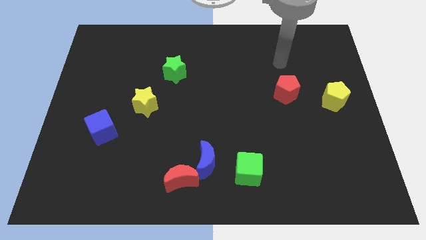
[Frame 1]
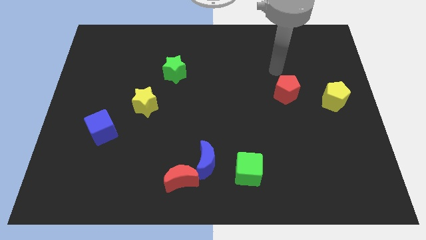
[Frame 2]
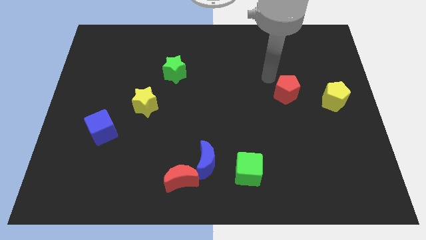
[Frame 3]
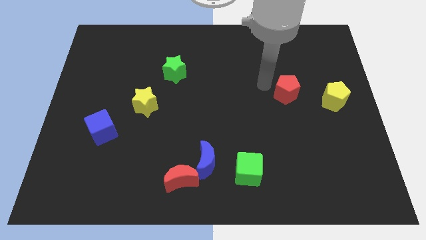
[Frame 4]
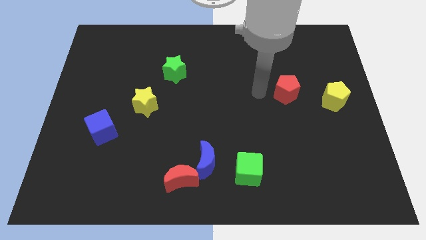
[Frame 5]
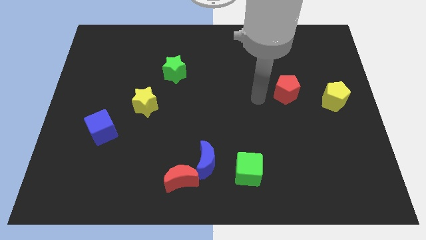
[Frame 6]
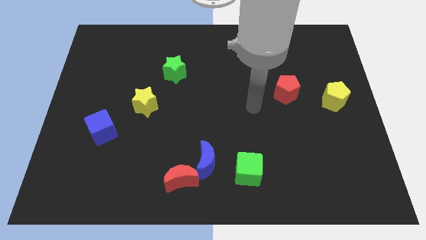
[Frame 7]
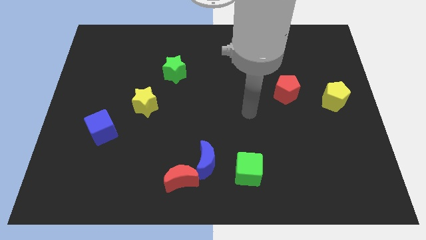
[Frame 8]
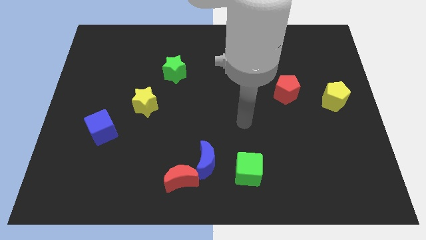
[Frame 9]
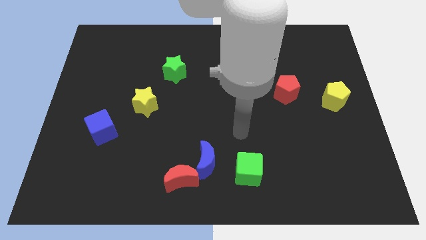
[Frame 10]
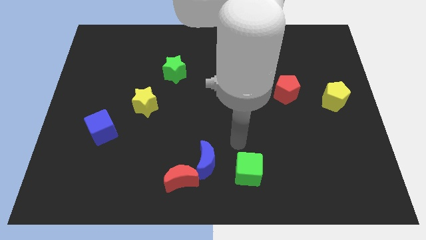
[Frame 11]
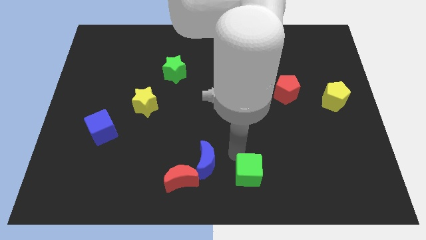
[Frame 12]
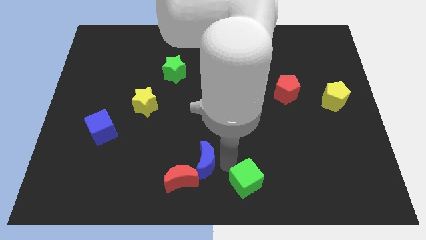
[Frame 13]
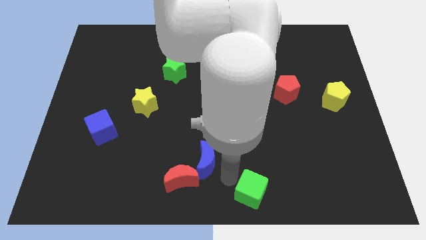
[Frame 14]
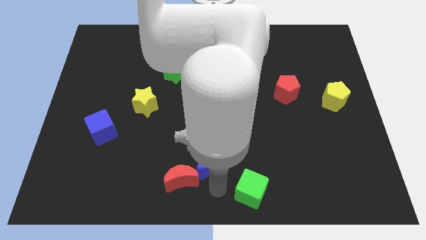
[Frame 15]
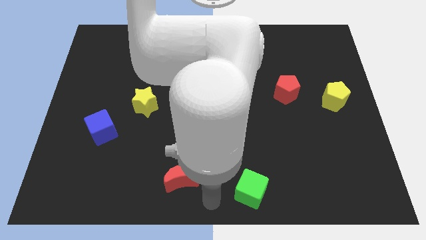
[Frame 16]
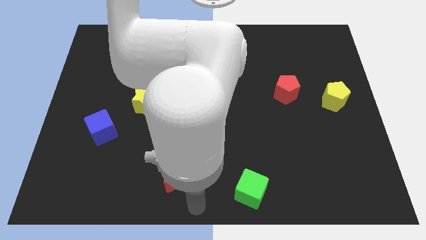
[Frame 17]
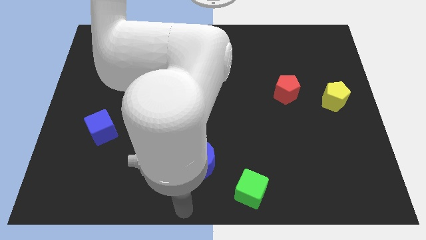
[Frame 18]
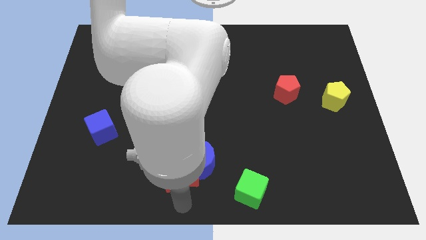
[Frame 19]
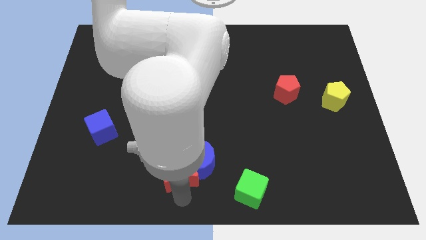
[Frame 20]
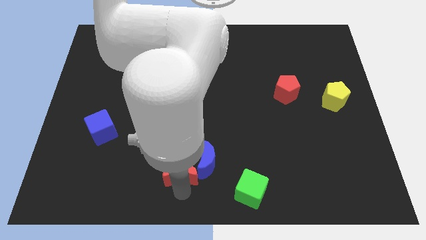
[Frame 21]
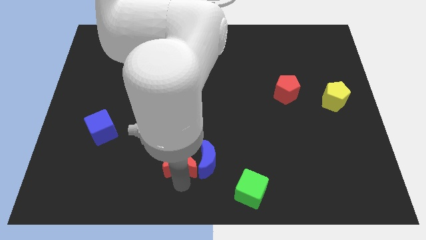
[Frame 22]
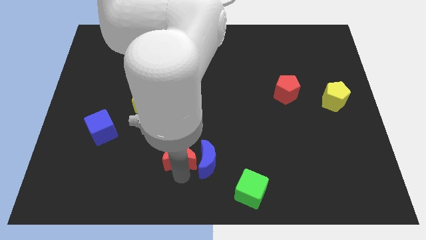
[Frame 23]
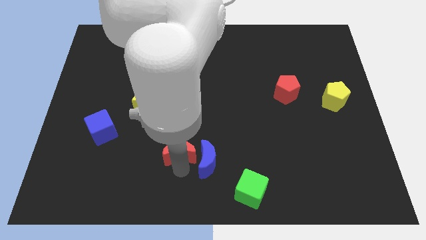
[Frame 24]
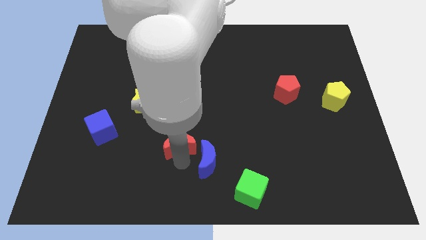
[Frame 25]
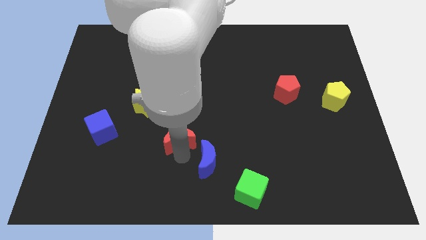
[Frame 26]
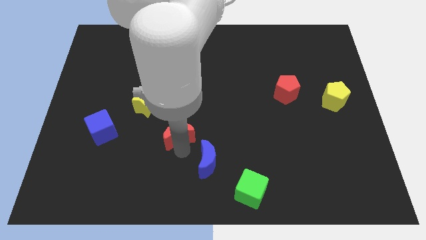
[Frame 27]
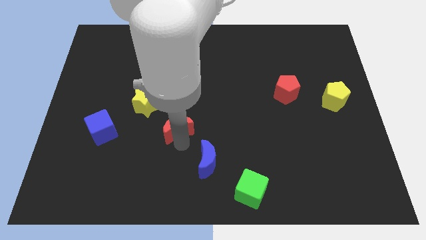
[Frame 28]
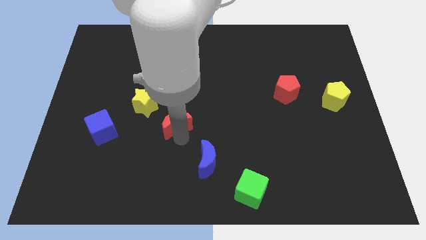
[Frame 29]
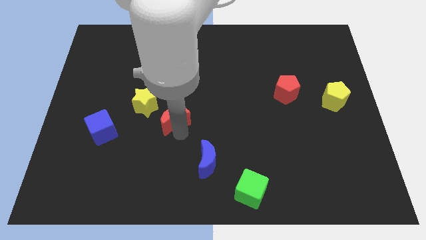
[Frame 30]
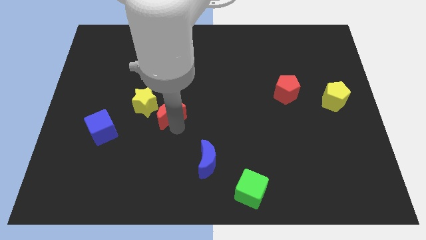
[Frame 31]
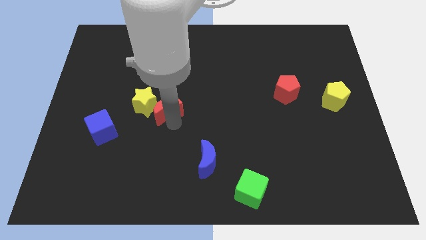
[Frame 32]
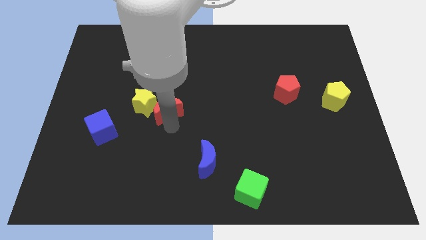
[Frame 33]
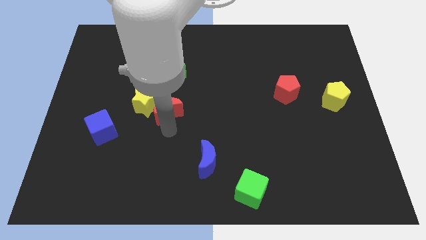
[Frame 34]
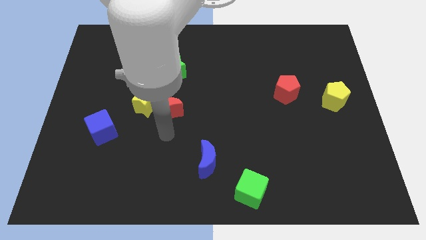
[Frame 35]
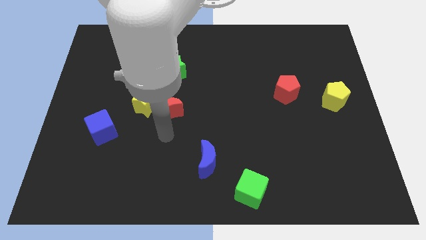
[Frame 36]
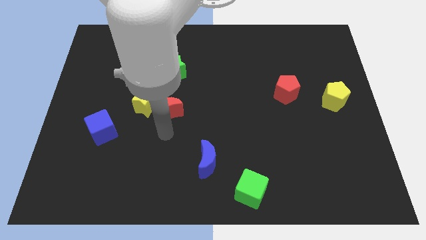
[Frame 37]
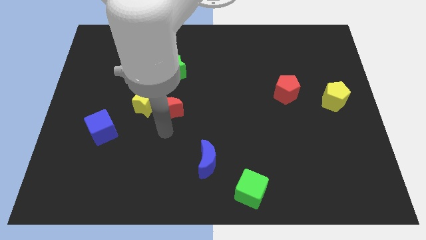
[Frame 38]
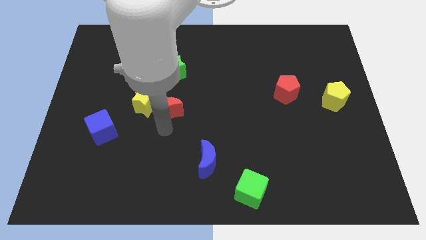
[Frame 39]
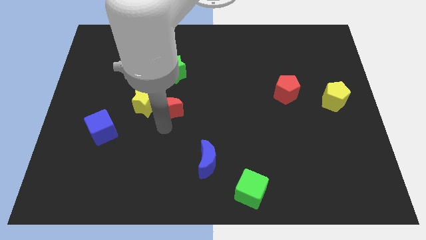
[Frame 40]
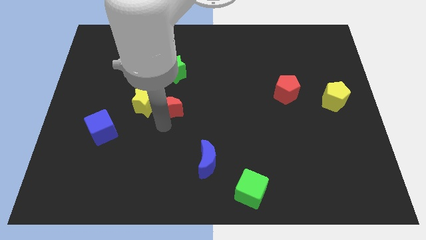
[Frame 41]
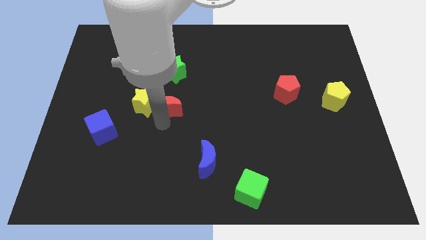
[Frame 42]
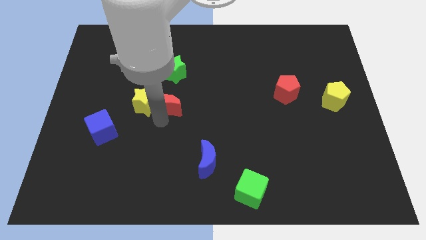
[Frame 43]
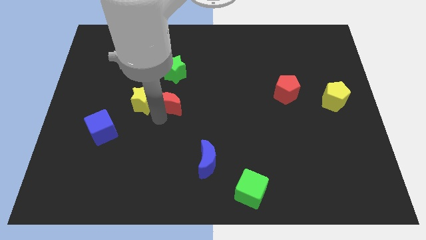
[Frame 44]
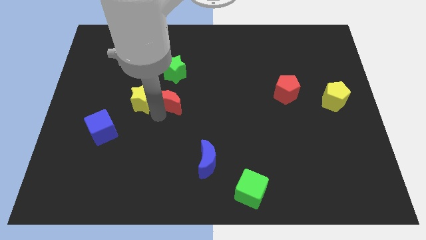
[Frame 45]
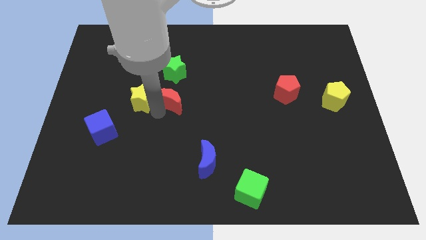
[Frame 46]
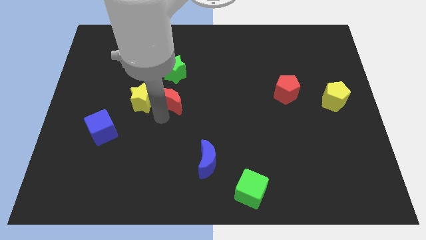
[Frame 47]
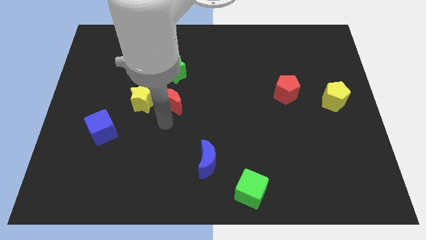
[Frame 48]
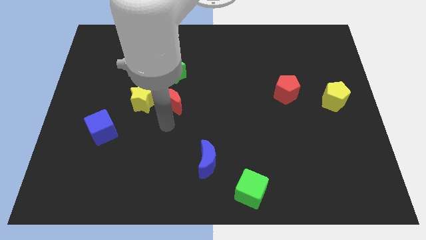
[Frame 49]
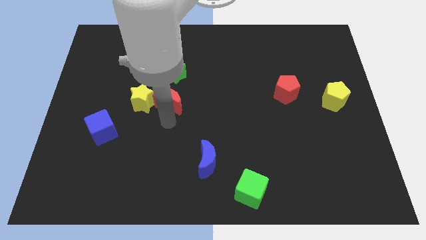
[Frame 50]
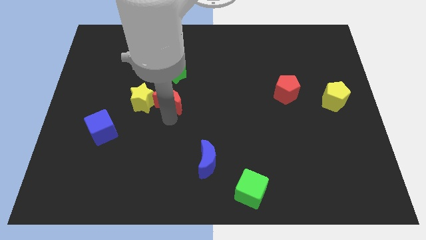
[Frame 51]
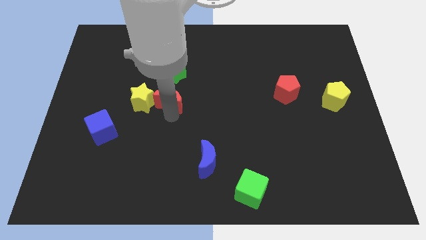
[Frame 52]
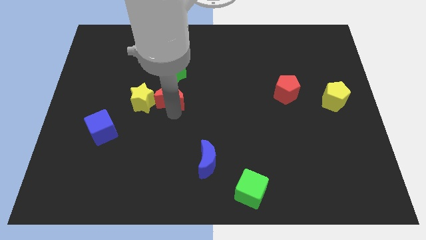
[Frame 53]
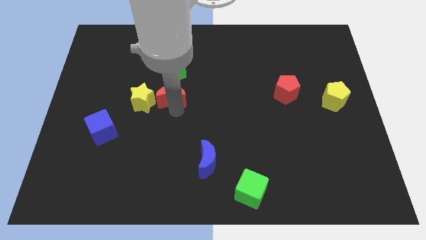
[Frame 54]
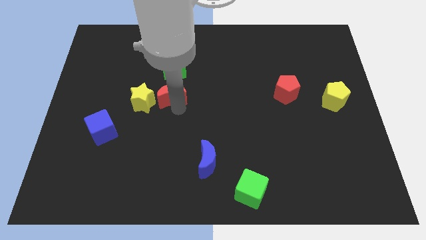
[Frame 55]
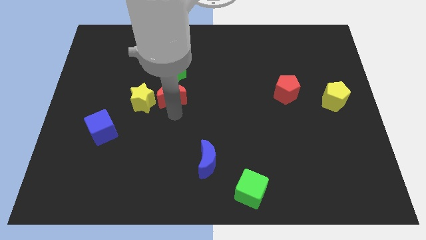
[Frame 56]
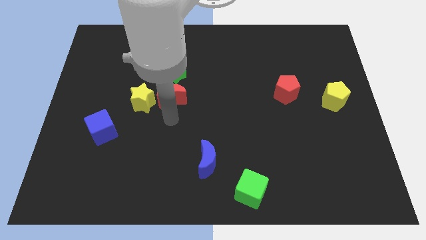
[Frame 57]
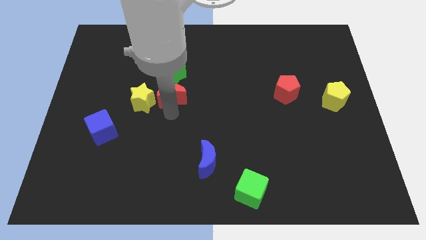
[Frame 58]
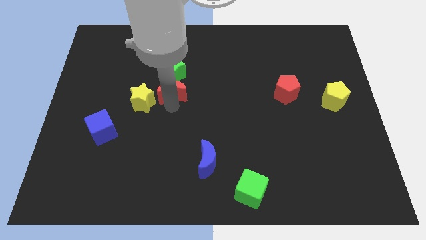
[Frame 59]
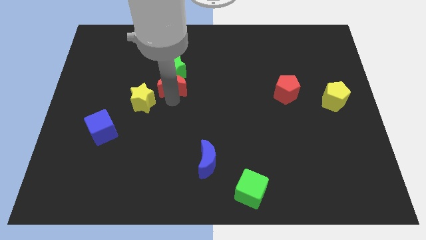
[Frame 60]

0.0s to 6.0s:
put the red moon next to the green star

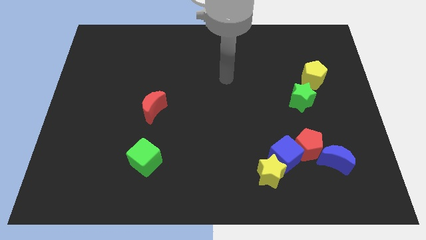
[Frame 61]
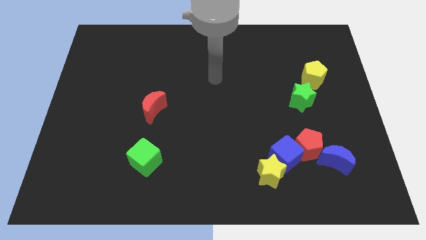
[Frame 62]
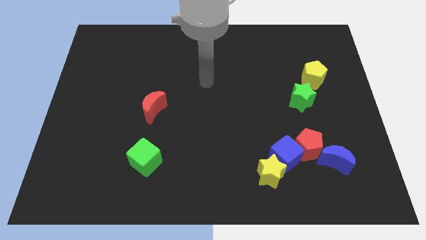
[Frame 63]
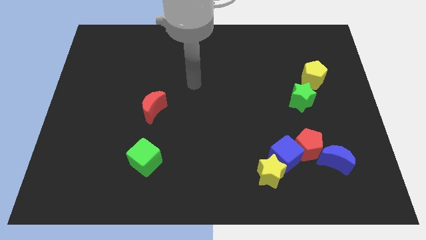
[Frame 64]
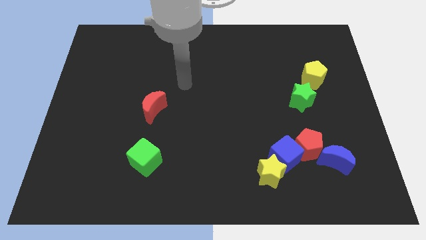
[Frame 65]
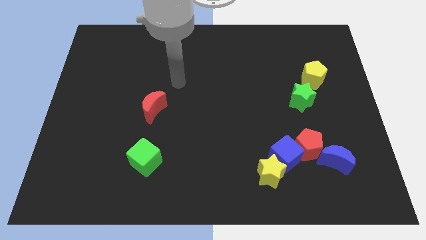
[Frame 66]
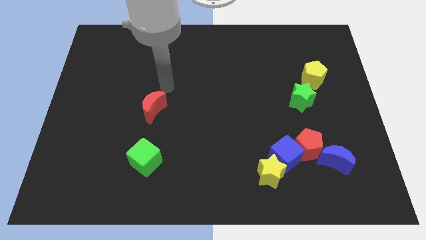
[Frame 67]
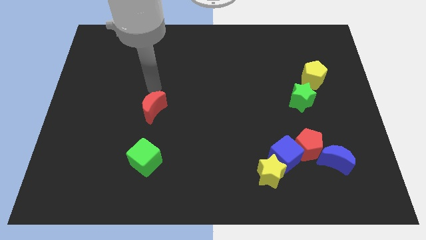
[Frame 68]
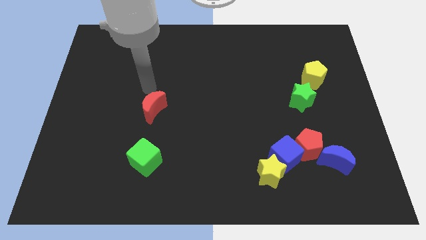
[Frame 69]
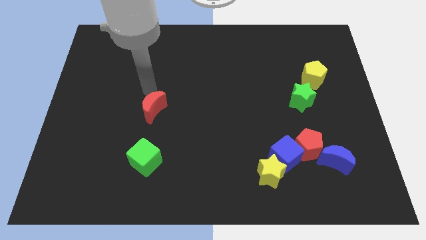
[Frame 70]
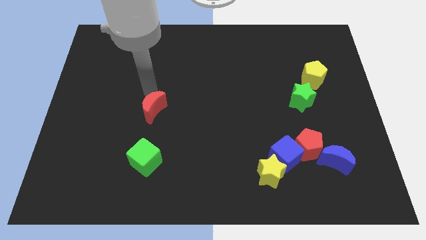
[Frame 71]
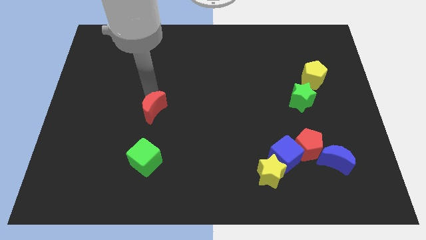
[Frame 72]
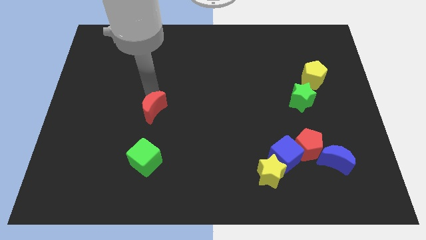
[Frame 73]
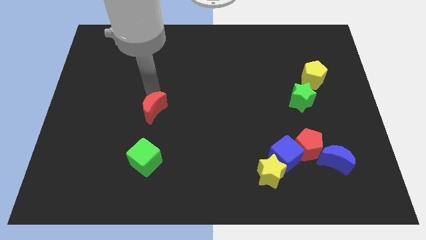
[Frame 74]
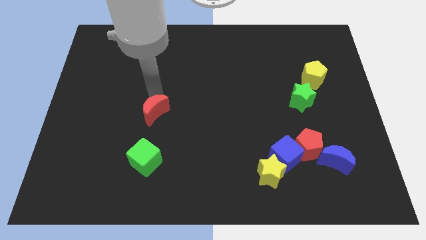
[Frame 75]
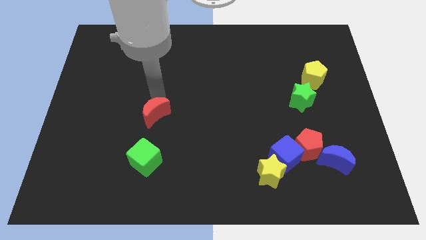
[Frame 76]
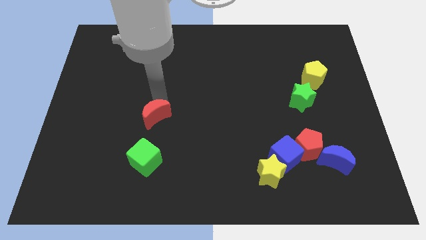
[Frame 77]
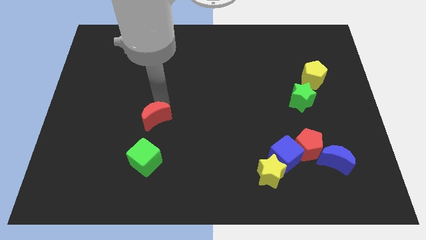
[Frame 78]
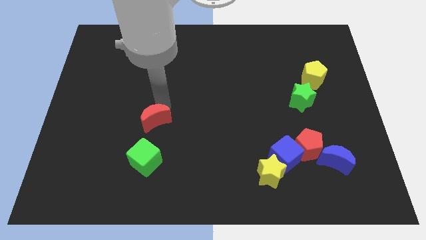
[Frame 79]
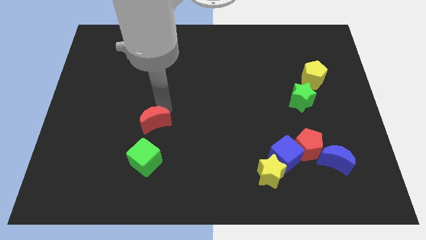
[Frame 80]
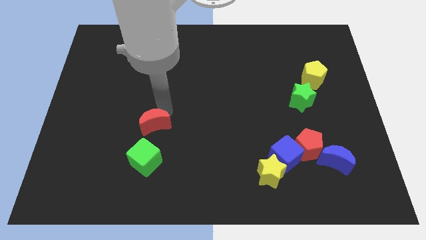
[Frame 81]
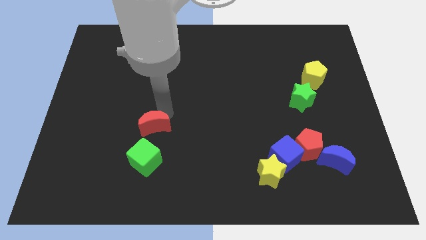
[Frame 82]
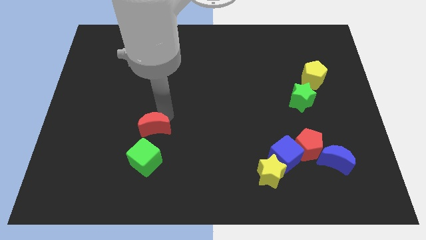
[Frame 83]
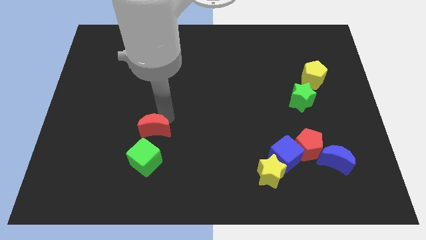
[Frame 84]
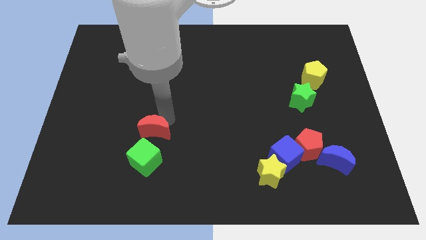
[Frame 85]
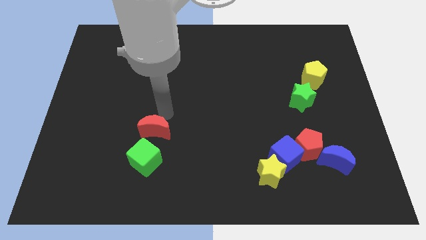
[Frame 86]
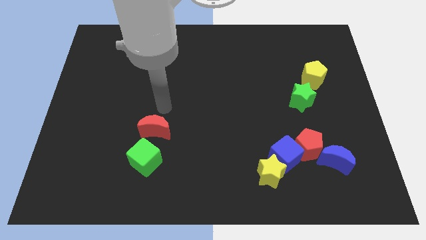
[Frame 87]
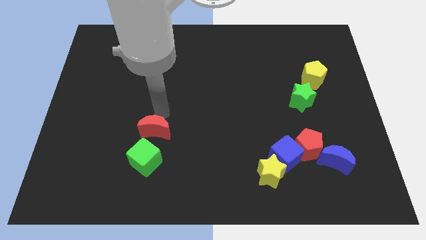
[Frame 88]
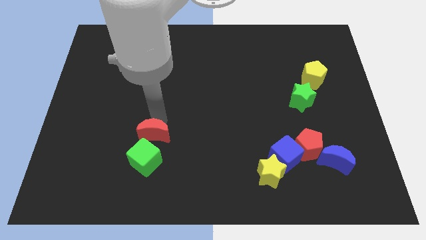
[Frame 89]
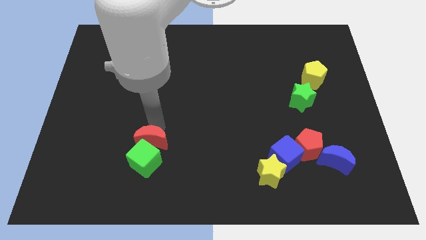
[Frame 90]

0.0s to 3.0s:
slide the red moon towards the green cube
